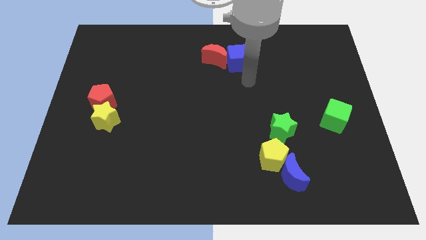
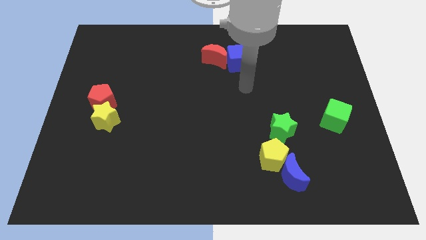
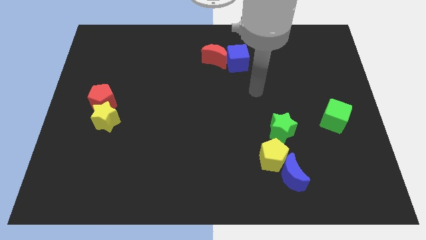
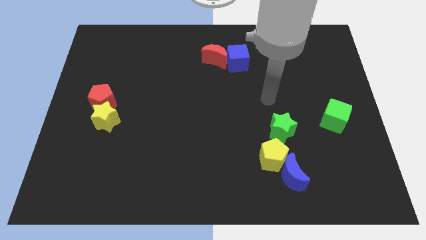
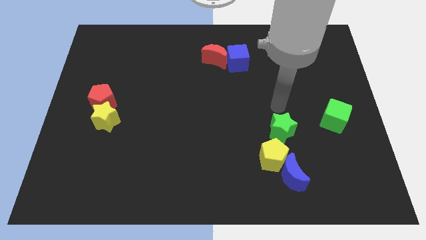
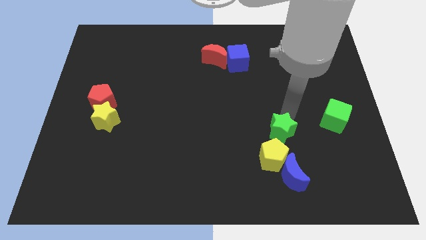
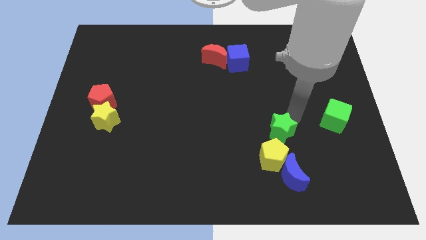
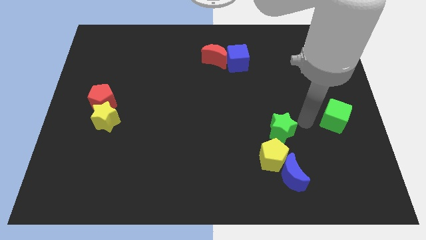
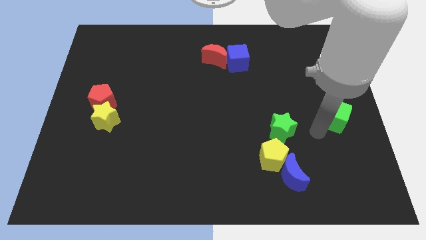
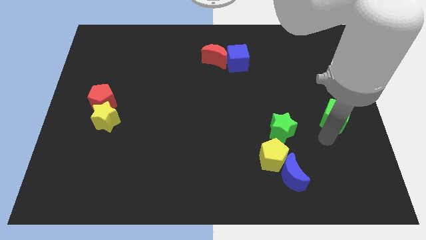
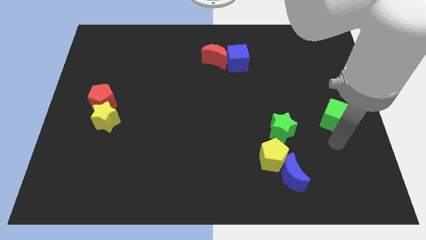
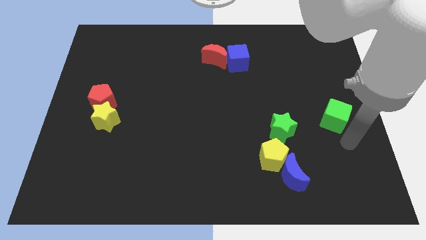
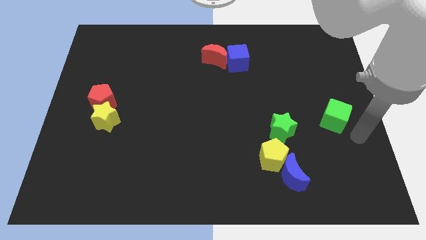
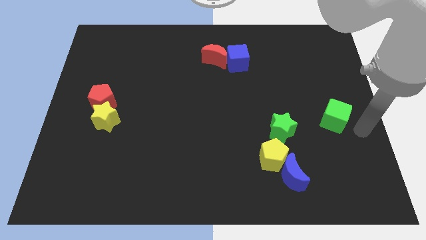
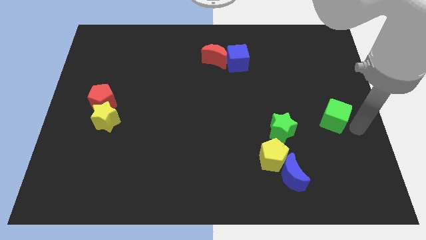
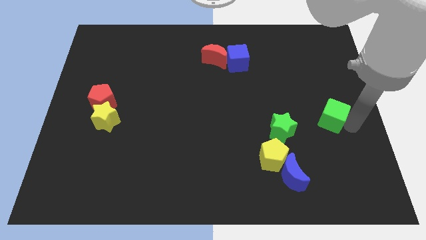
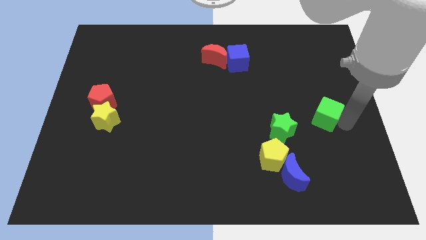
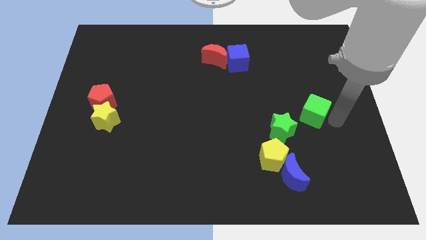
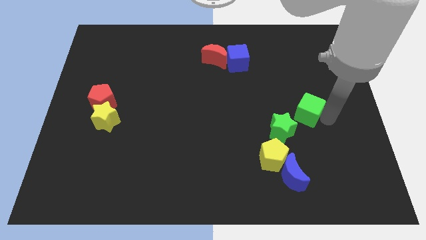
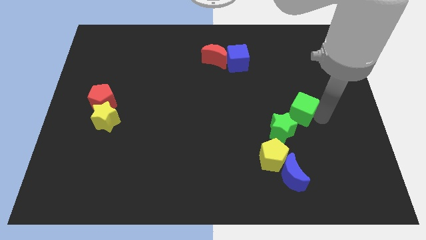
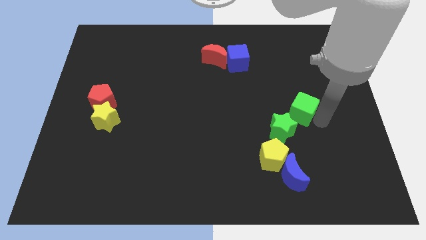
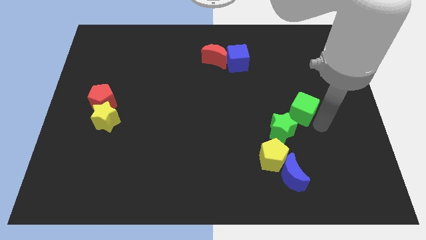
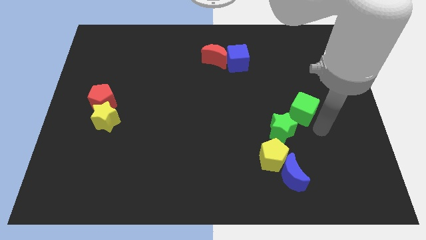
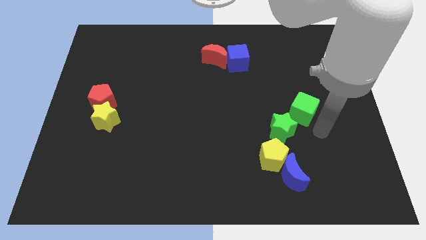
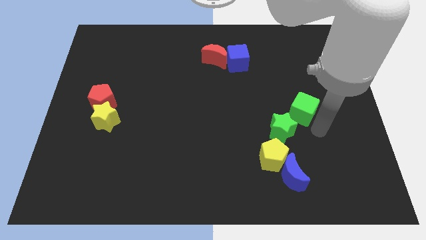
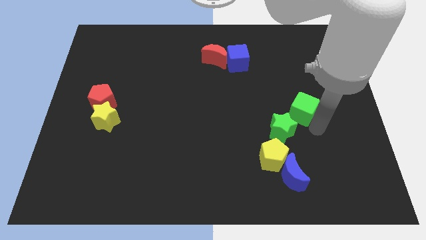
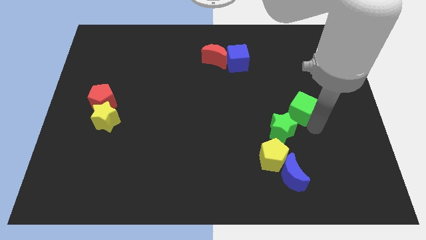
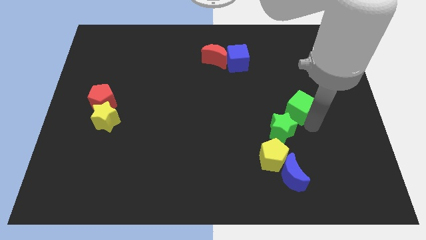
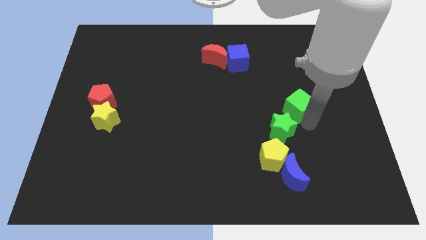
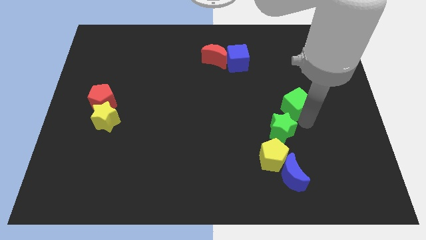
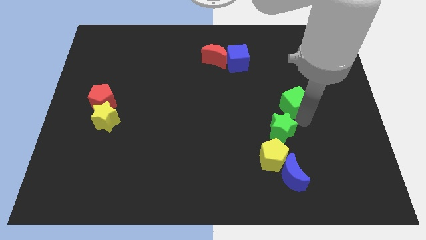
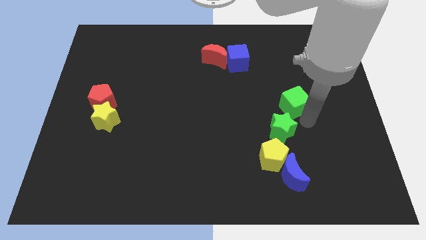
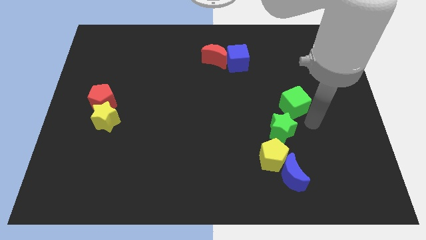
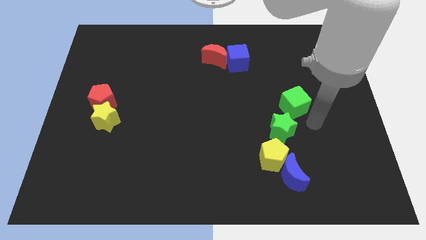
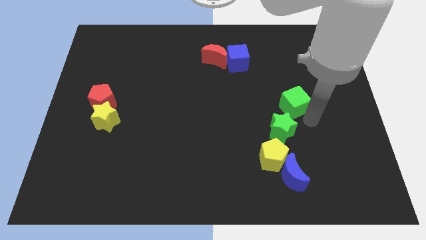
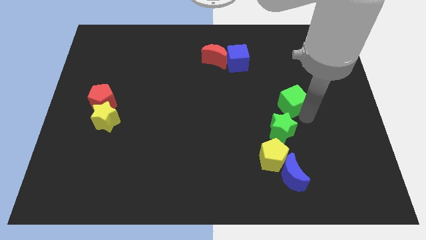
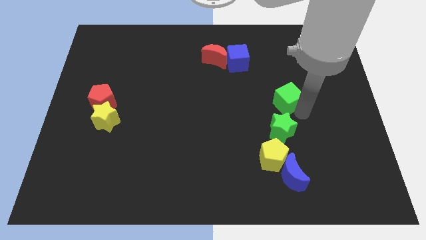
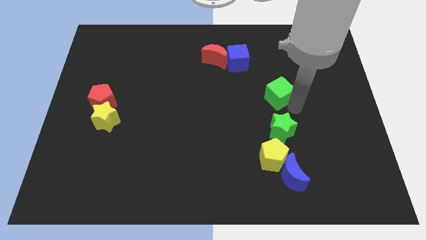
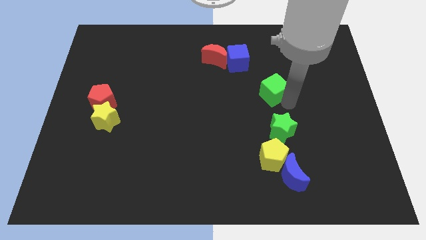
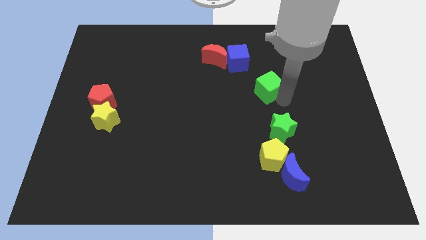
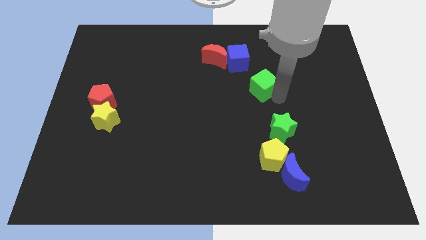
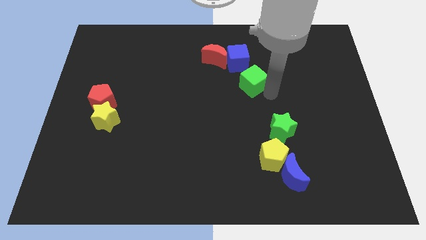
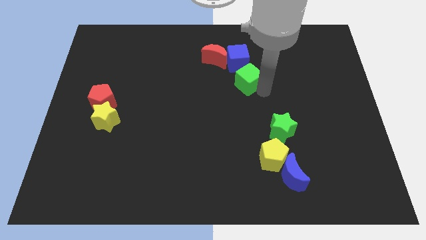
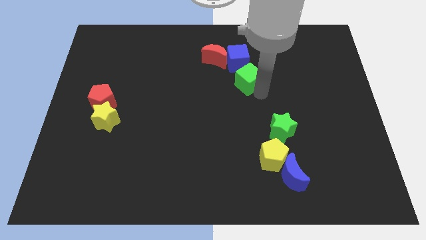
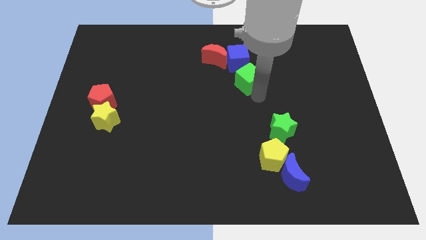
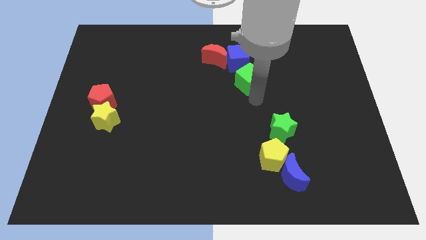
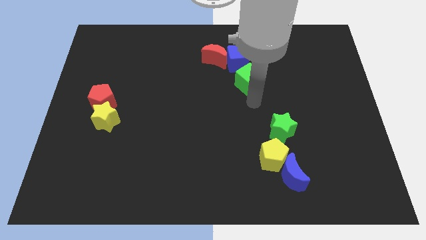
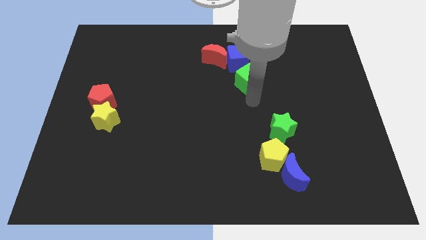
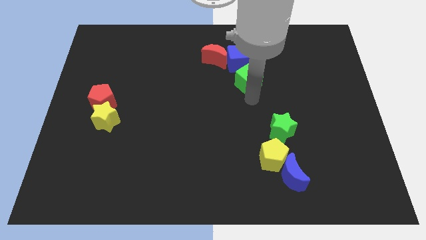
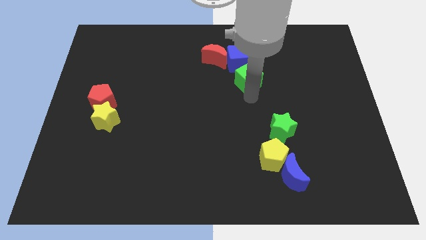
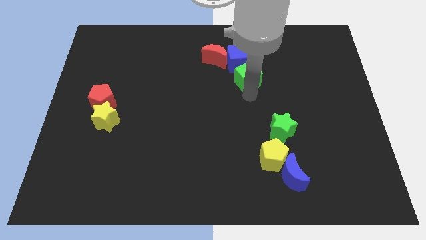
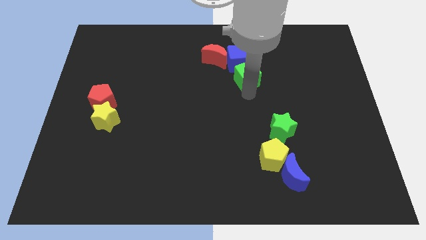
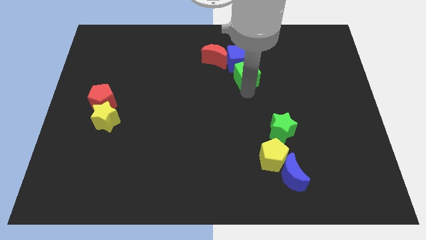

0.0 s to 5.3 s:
move the green cube to the blue cube

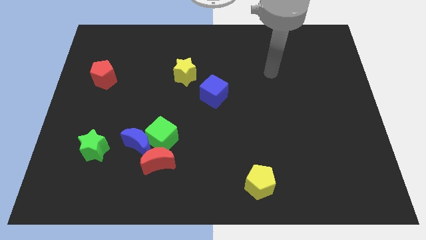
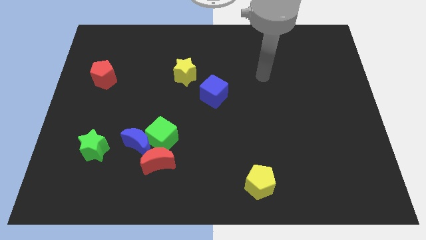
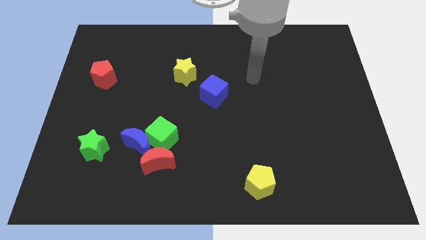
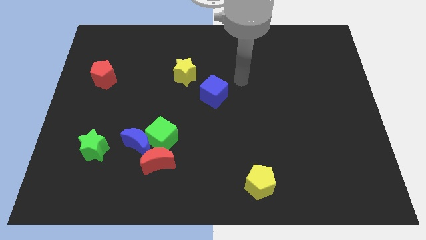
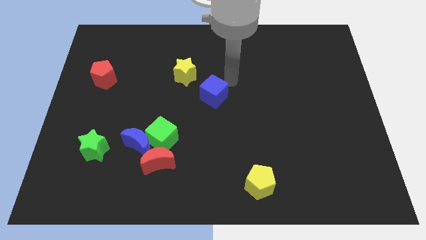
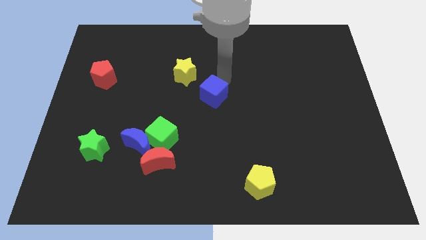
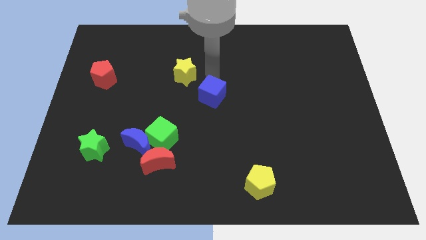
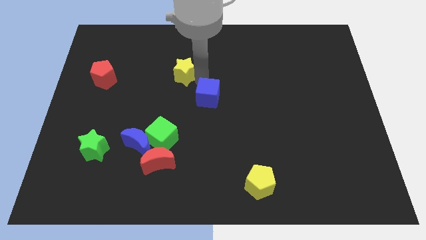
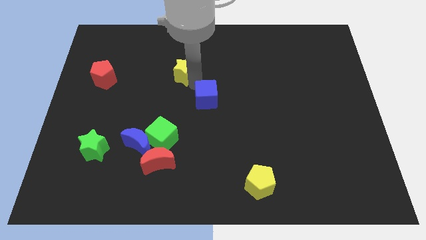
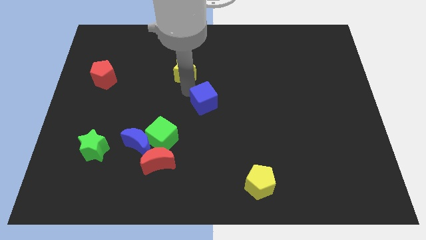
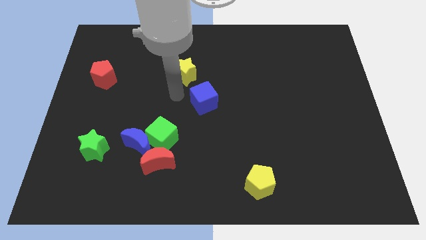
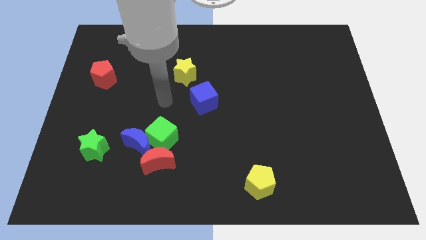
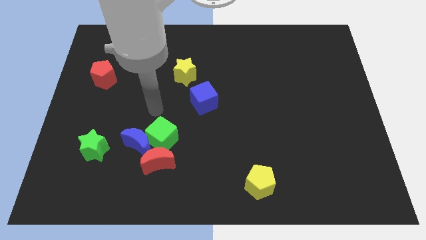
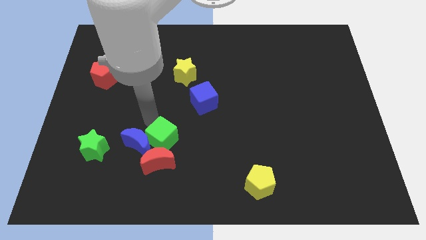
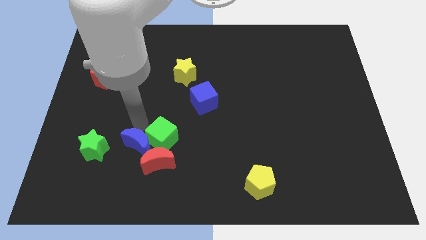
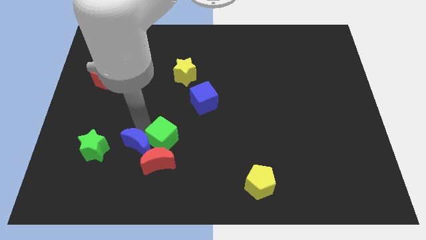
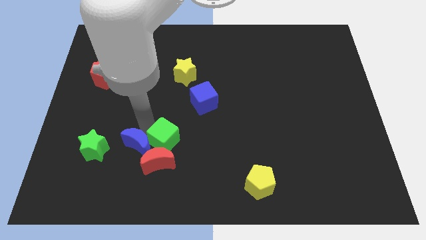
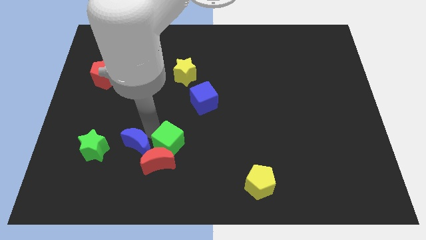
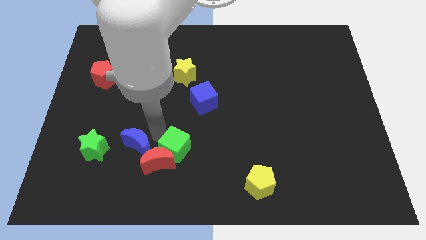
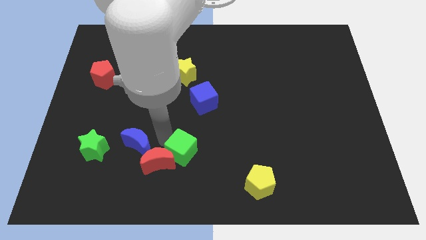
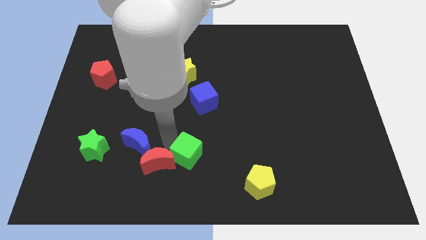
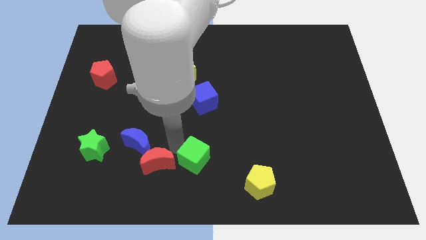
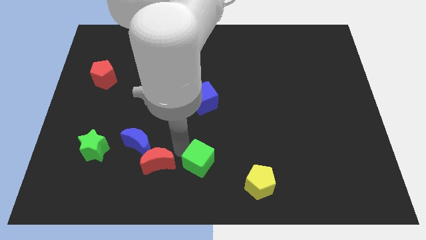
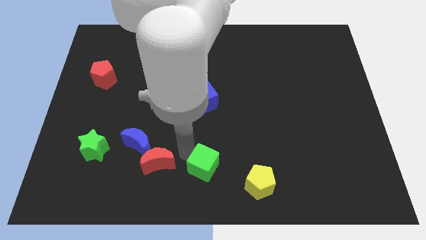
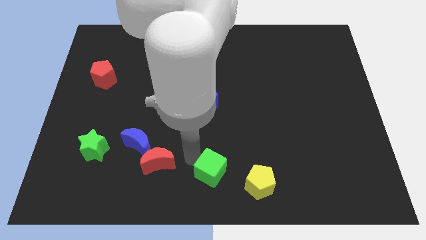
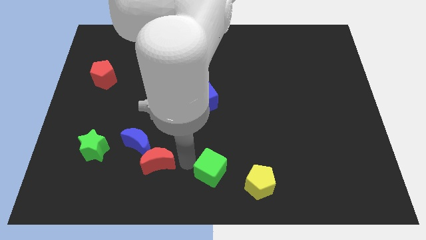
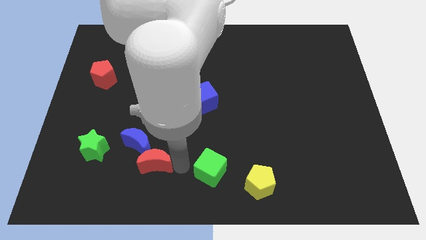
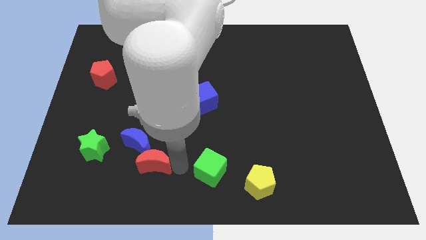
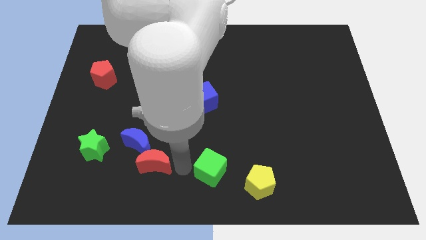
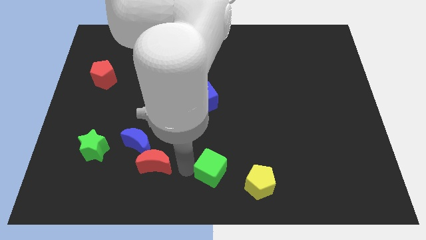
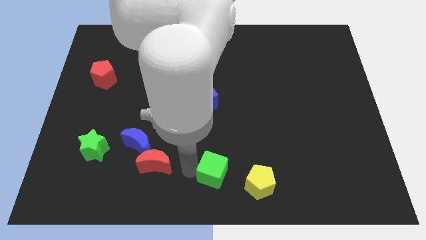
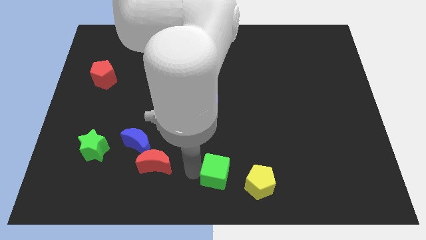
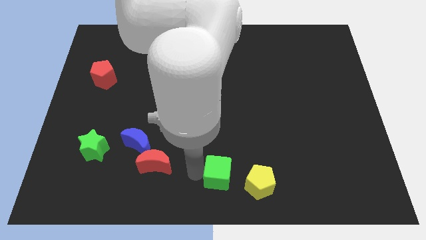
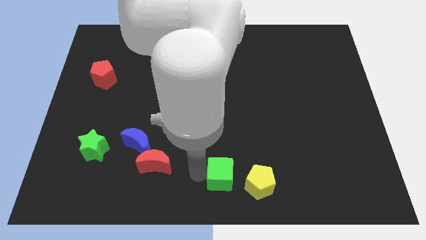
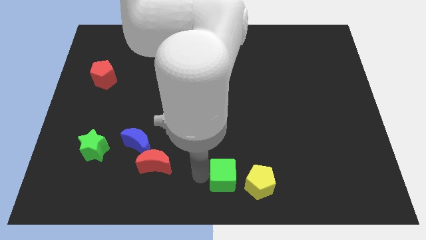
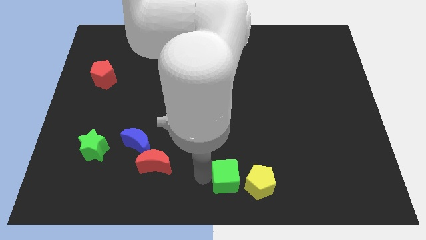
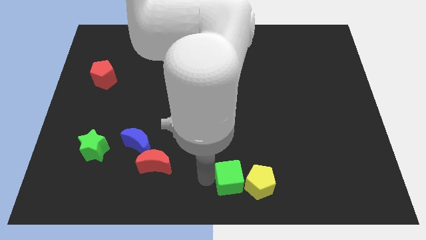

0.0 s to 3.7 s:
push the green cube towards the yellow pentagon
